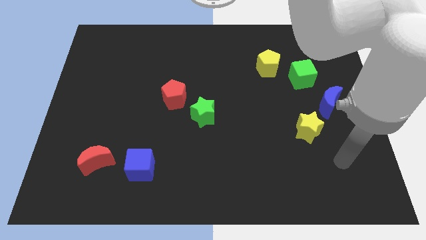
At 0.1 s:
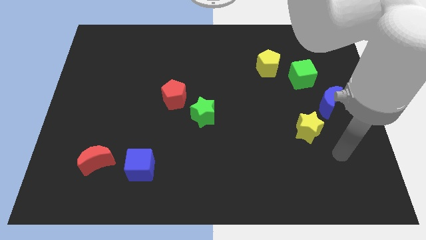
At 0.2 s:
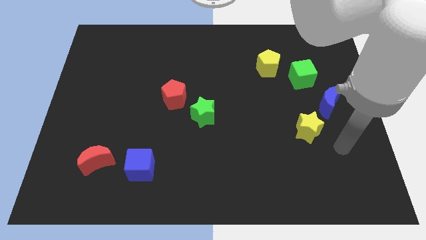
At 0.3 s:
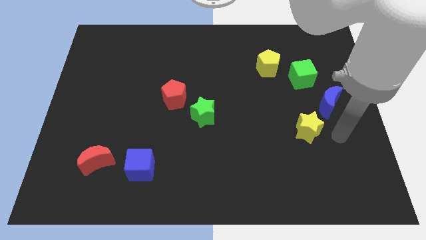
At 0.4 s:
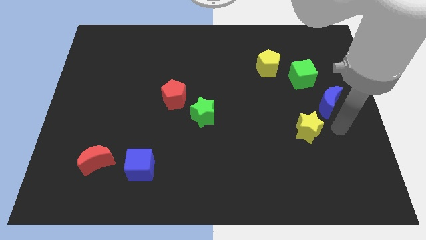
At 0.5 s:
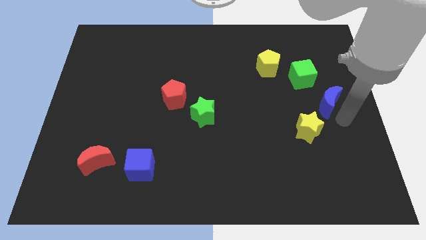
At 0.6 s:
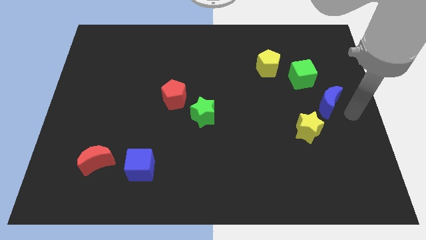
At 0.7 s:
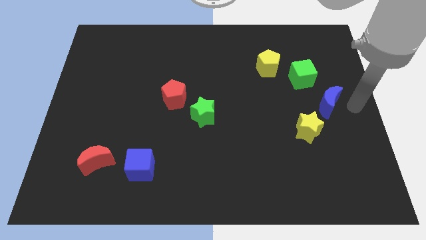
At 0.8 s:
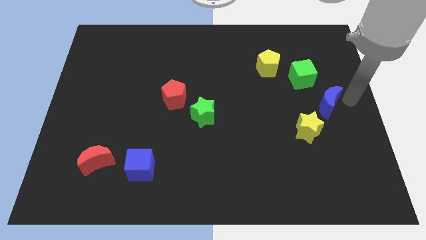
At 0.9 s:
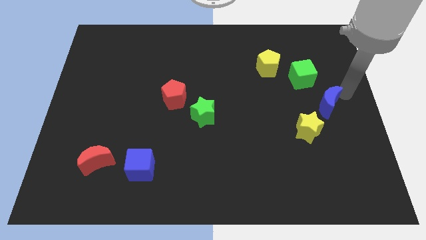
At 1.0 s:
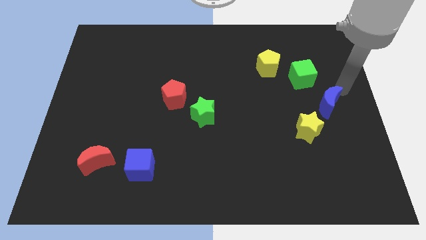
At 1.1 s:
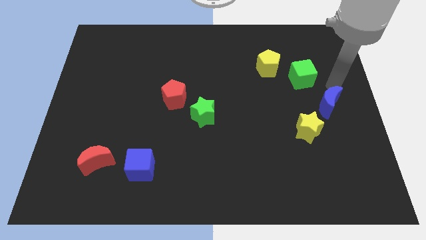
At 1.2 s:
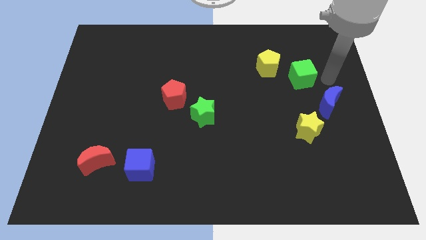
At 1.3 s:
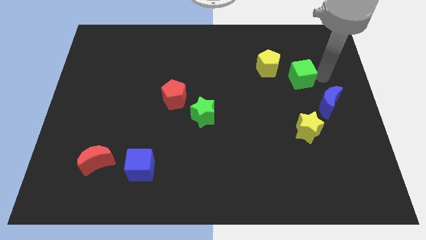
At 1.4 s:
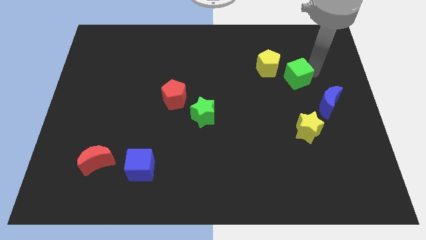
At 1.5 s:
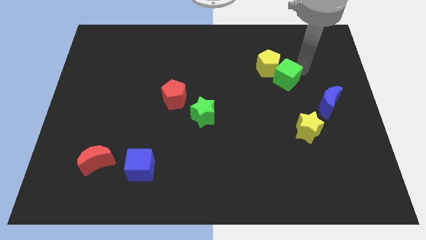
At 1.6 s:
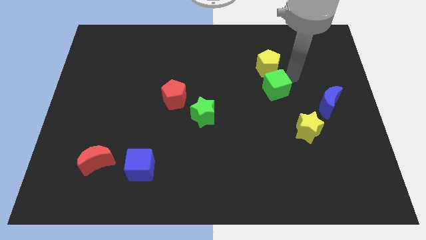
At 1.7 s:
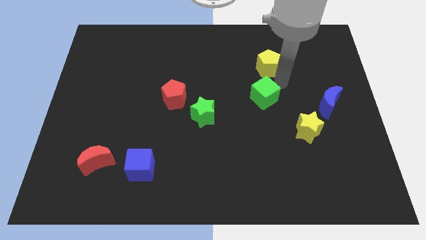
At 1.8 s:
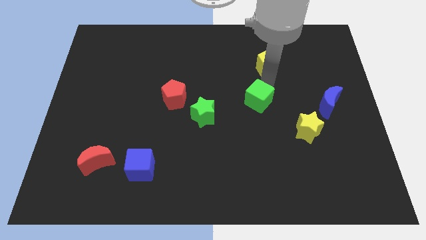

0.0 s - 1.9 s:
move the yellow pentagon away from the green cube

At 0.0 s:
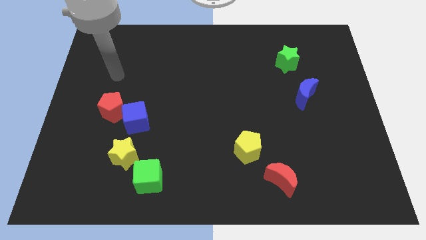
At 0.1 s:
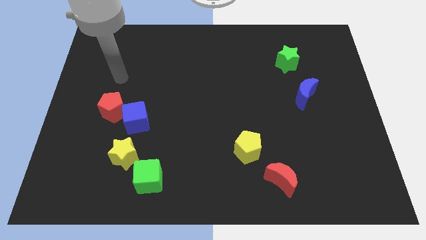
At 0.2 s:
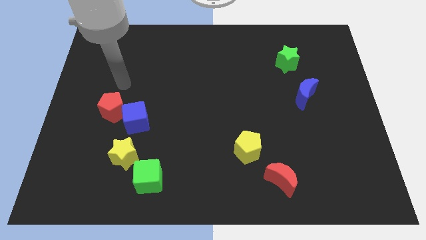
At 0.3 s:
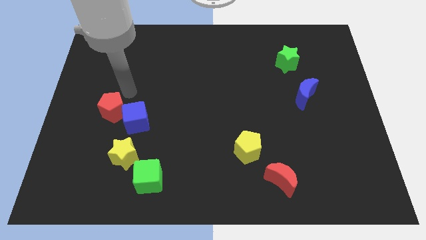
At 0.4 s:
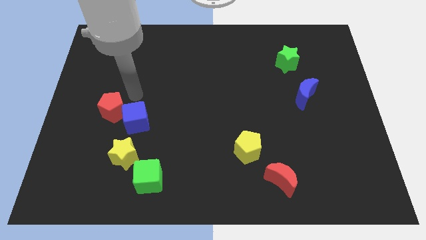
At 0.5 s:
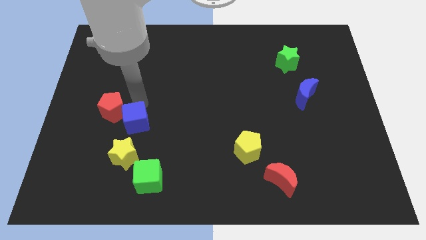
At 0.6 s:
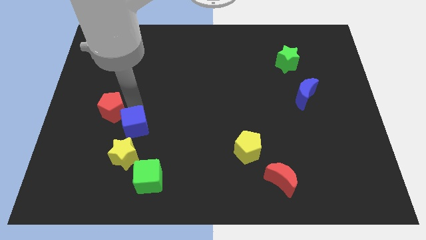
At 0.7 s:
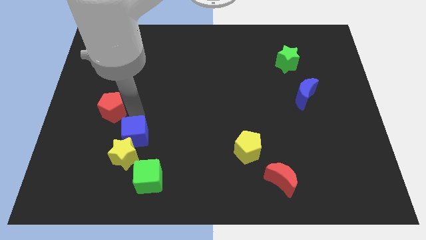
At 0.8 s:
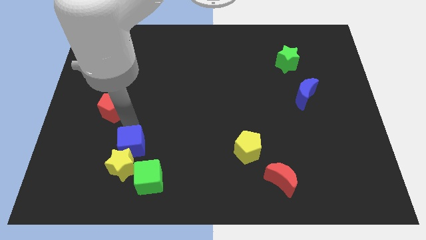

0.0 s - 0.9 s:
separate the red pentagon from the blue cube

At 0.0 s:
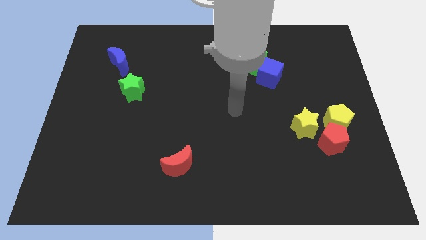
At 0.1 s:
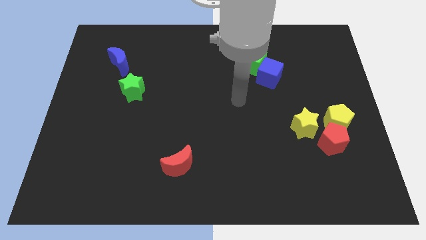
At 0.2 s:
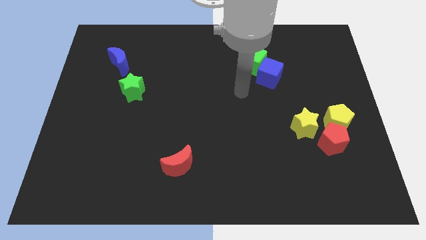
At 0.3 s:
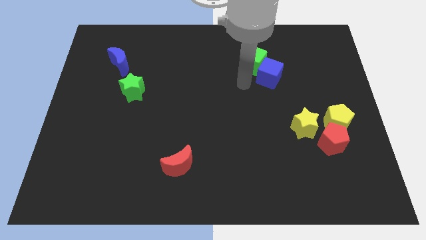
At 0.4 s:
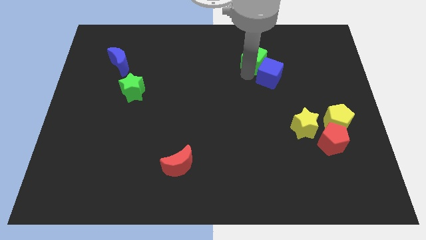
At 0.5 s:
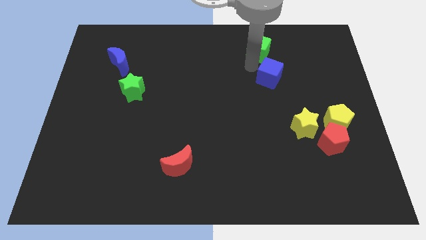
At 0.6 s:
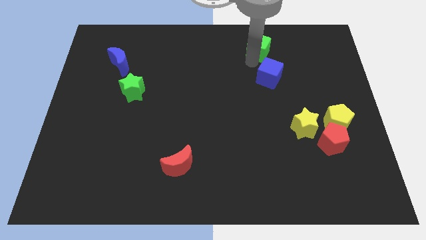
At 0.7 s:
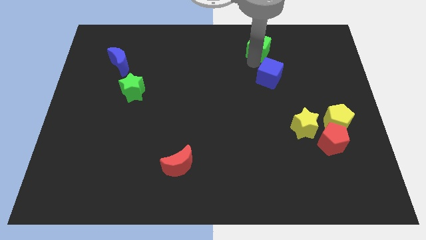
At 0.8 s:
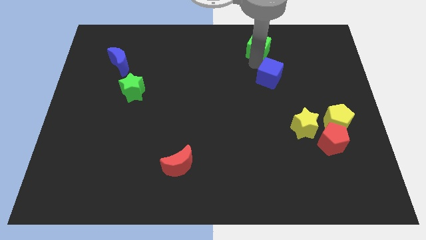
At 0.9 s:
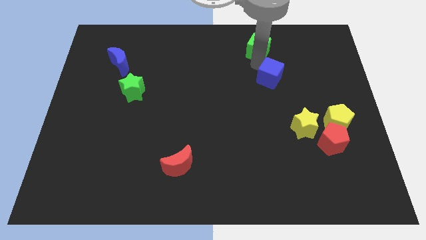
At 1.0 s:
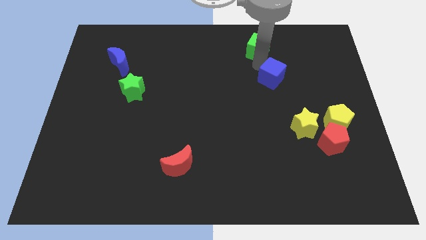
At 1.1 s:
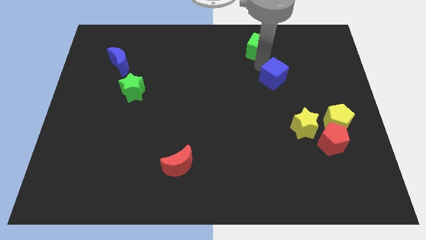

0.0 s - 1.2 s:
move the blue cube away from the green cube

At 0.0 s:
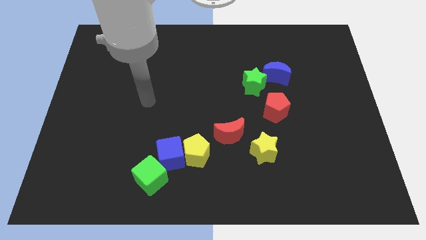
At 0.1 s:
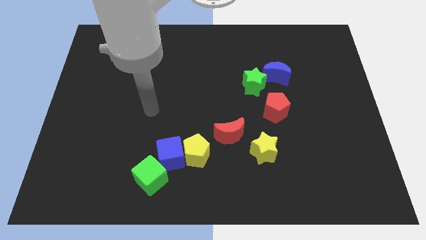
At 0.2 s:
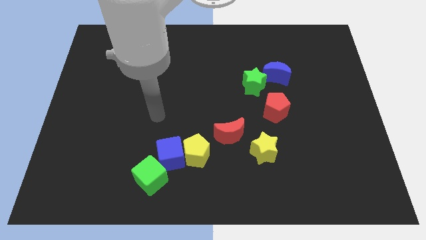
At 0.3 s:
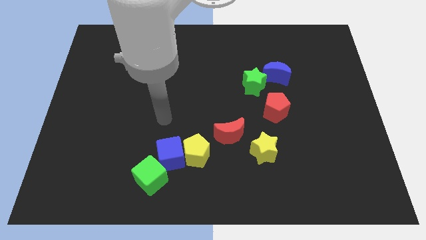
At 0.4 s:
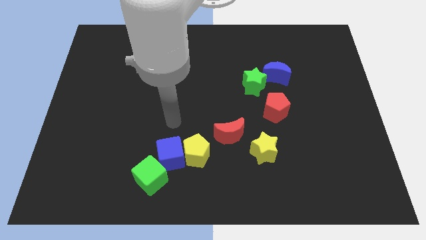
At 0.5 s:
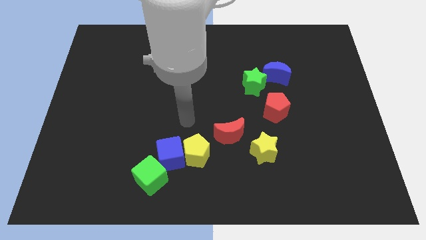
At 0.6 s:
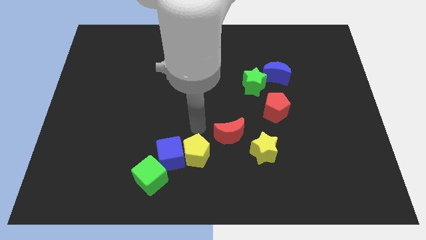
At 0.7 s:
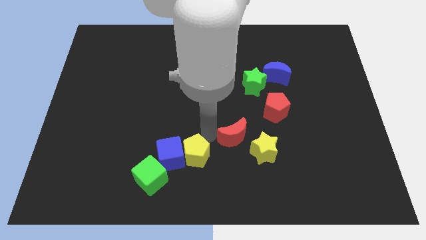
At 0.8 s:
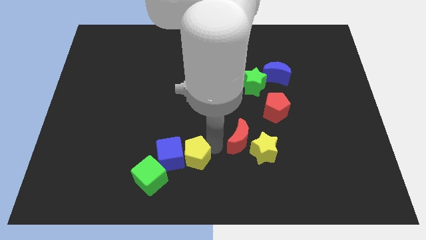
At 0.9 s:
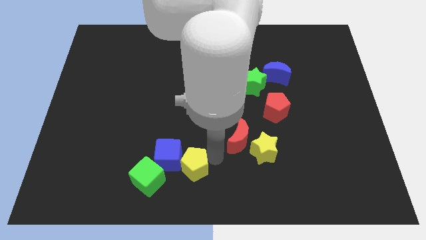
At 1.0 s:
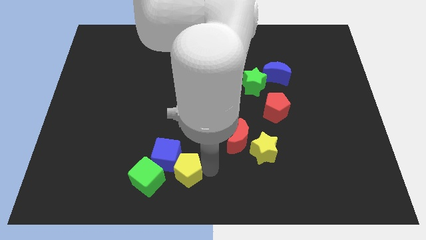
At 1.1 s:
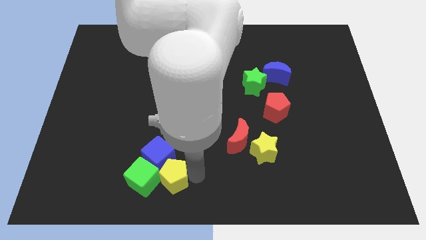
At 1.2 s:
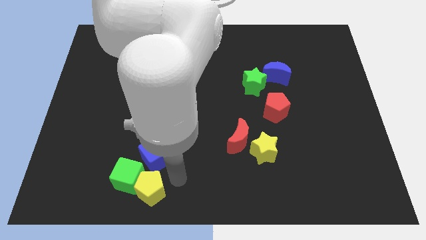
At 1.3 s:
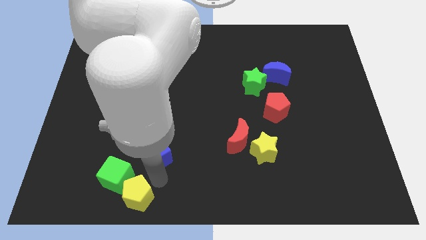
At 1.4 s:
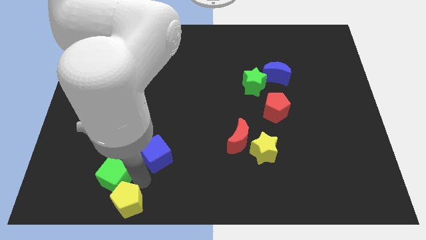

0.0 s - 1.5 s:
pull the blue cube apart from the yellow pentagon and green cube

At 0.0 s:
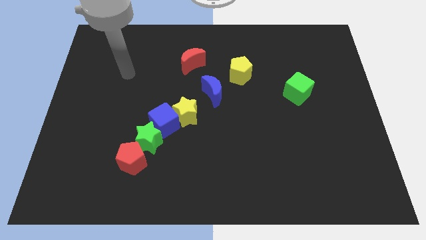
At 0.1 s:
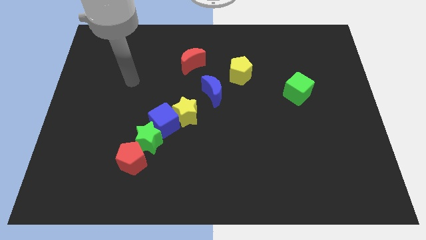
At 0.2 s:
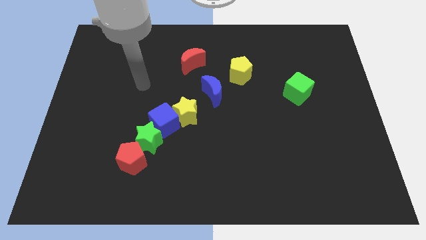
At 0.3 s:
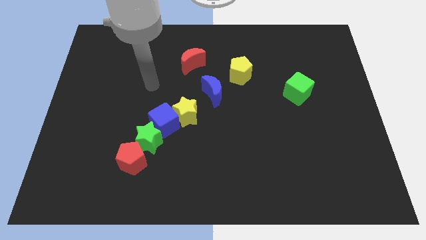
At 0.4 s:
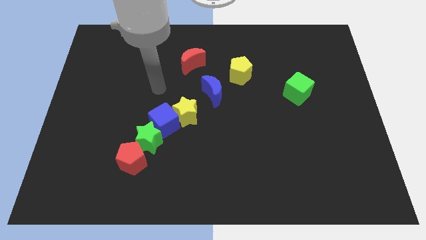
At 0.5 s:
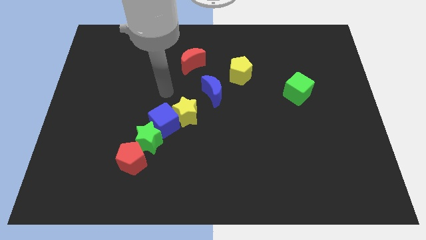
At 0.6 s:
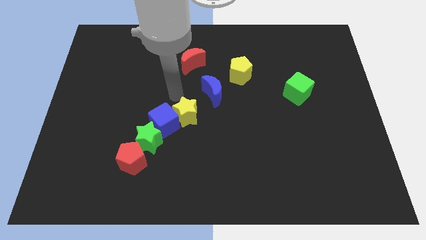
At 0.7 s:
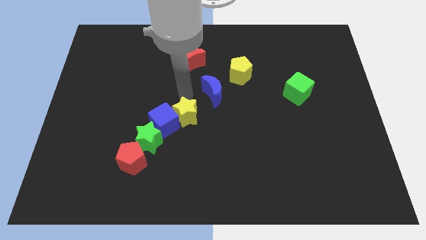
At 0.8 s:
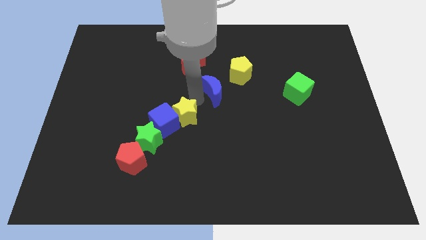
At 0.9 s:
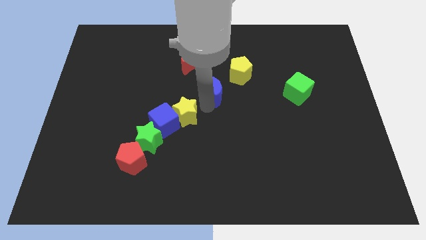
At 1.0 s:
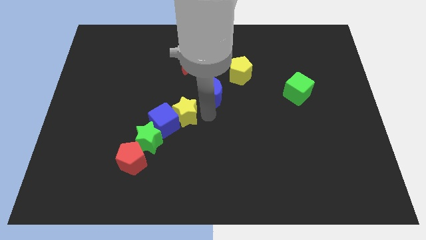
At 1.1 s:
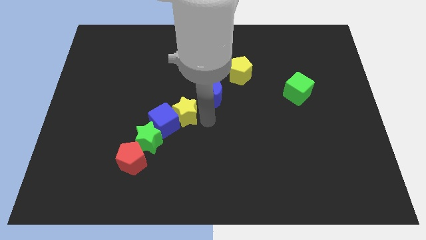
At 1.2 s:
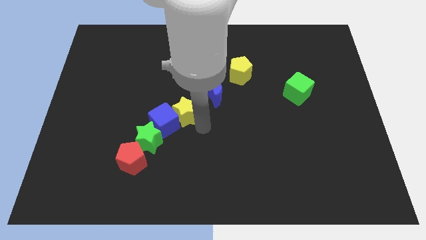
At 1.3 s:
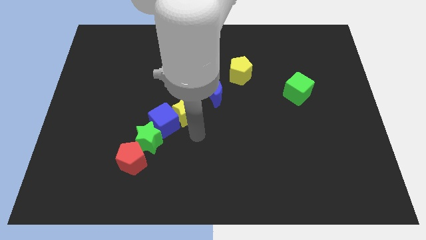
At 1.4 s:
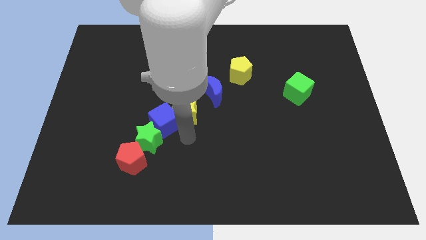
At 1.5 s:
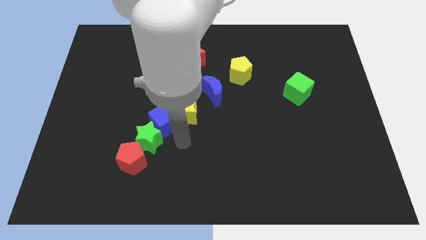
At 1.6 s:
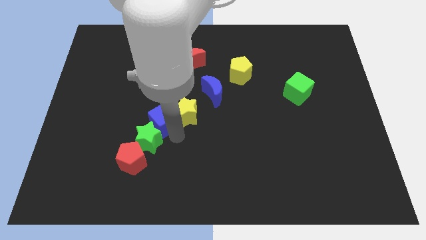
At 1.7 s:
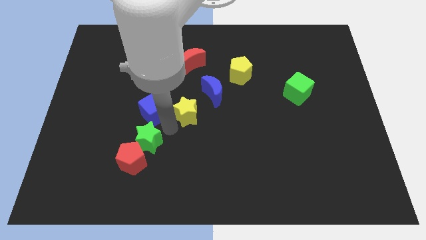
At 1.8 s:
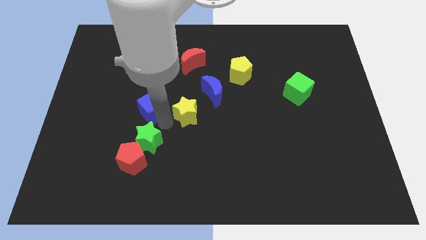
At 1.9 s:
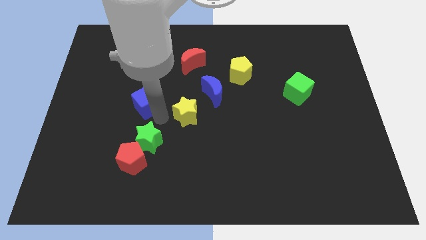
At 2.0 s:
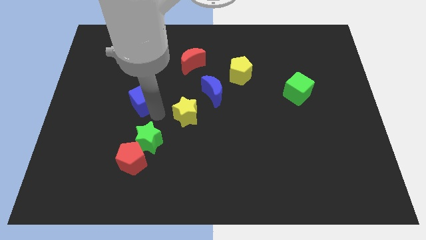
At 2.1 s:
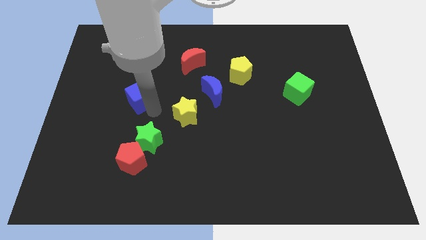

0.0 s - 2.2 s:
separate the blue cube from the yellow star and green star

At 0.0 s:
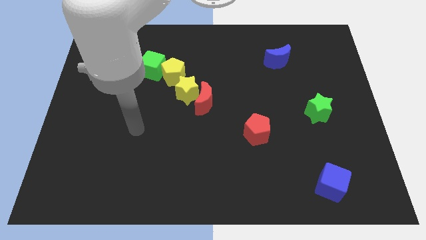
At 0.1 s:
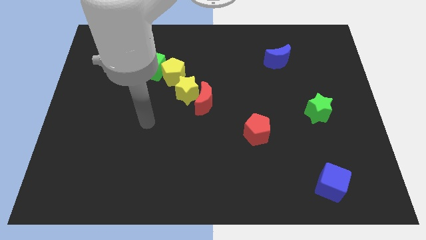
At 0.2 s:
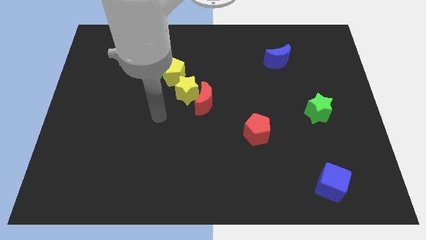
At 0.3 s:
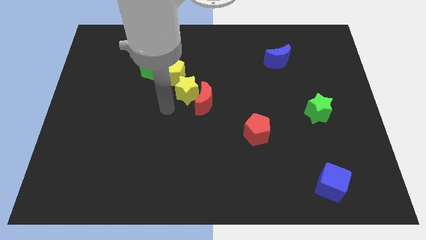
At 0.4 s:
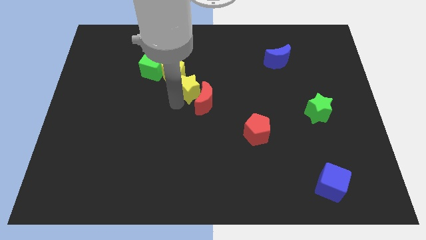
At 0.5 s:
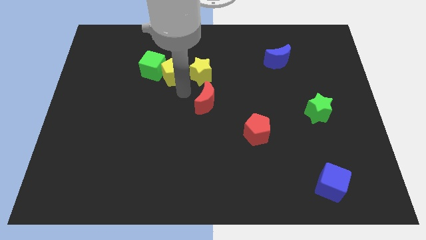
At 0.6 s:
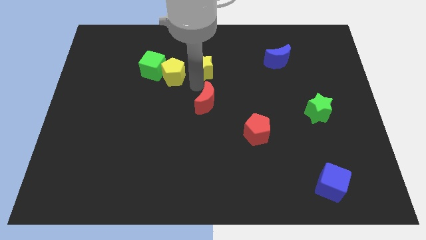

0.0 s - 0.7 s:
separate the red moon from the yellow star

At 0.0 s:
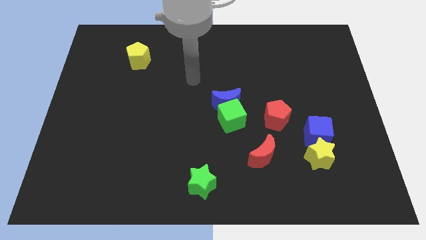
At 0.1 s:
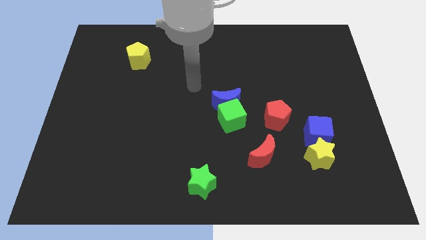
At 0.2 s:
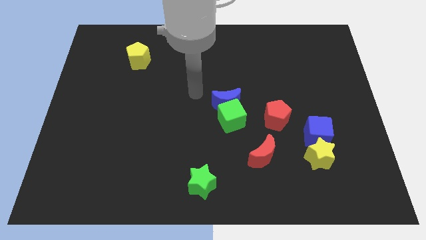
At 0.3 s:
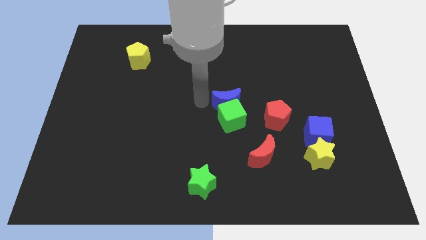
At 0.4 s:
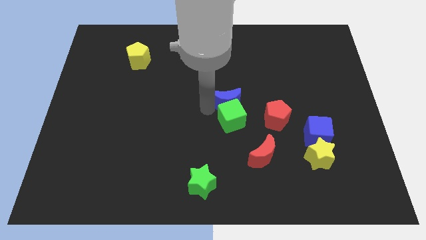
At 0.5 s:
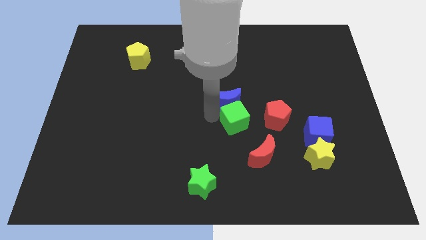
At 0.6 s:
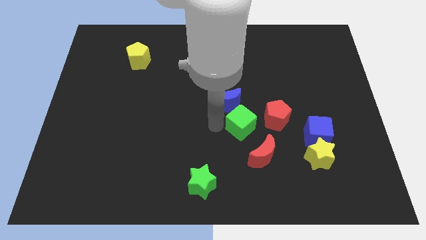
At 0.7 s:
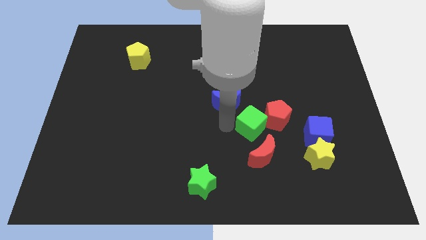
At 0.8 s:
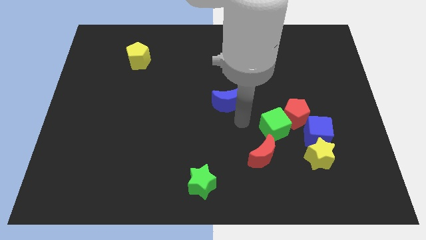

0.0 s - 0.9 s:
move the blue moon away from the green cube
